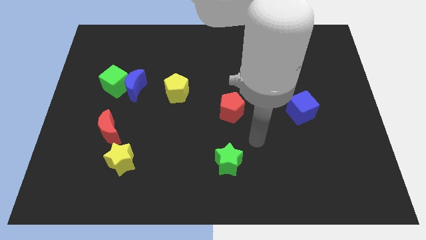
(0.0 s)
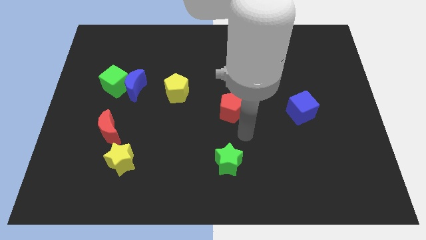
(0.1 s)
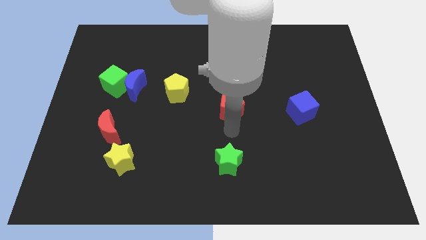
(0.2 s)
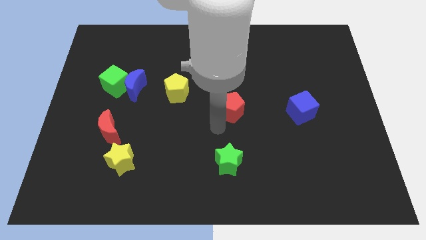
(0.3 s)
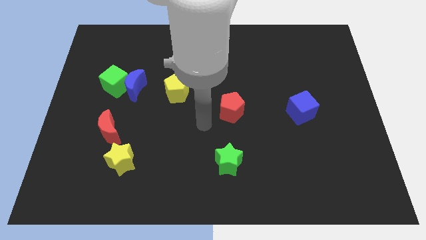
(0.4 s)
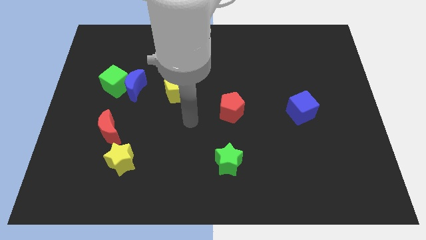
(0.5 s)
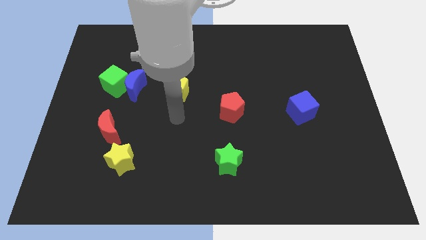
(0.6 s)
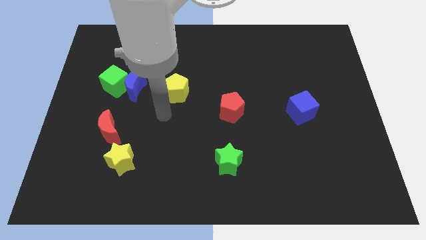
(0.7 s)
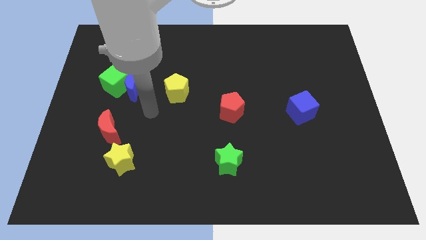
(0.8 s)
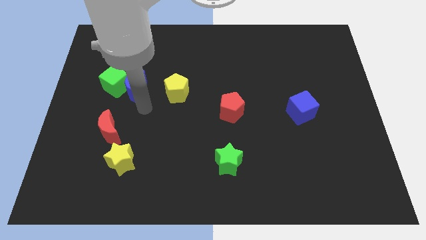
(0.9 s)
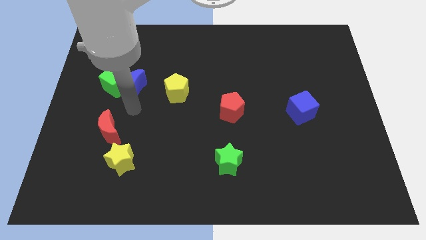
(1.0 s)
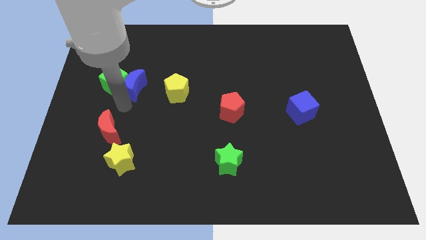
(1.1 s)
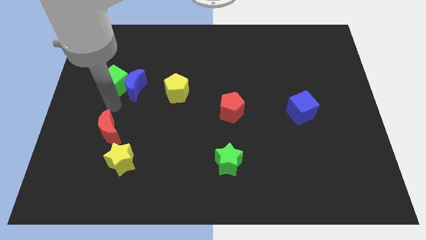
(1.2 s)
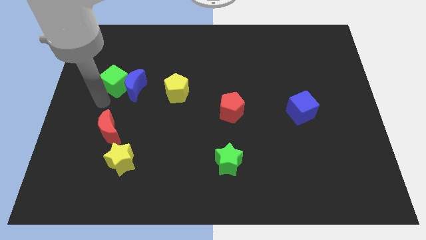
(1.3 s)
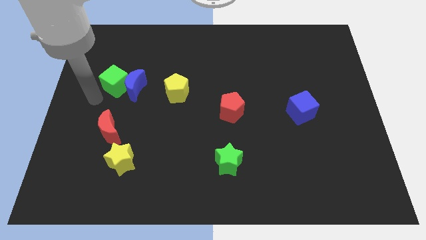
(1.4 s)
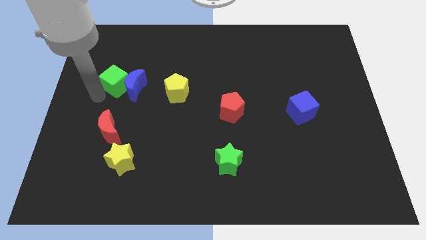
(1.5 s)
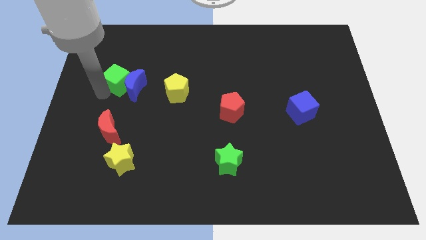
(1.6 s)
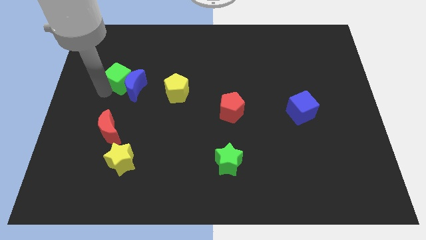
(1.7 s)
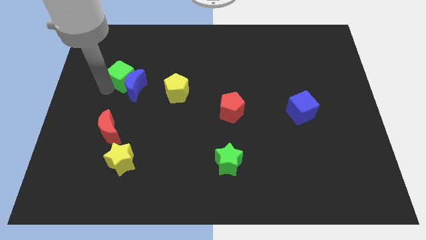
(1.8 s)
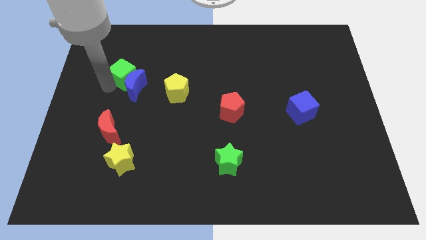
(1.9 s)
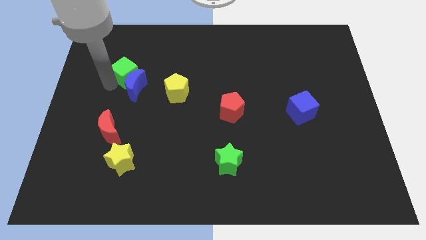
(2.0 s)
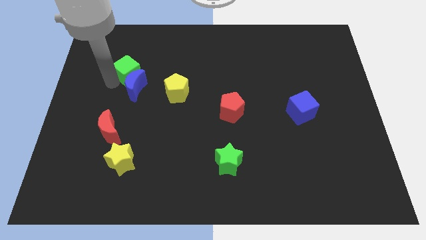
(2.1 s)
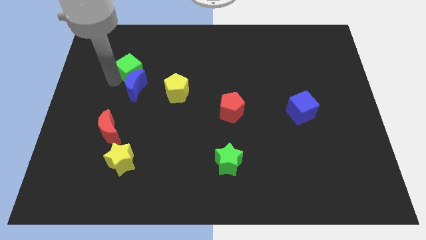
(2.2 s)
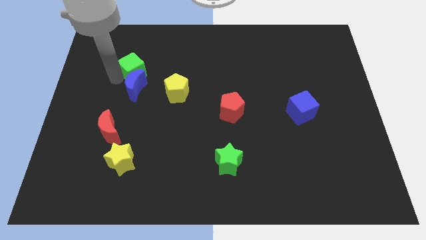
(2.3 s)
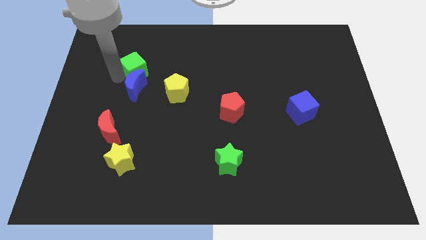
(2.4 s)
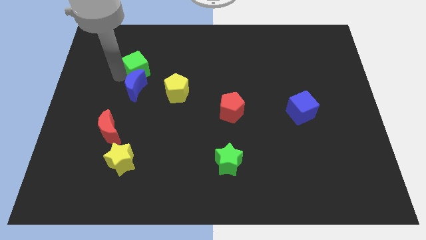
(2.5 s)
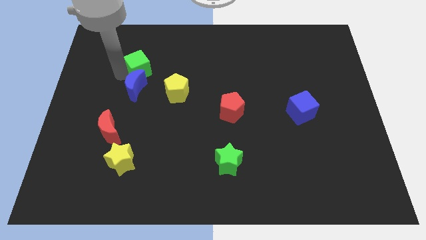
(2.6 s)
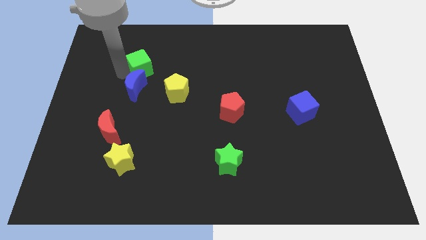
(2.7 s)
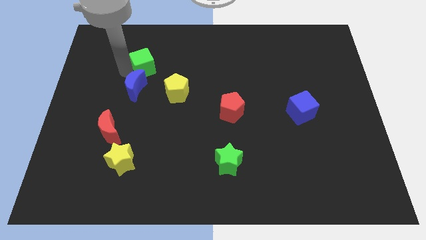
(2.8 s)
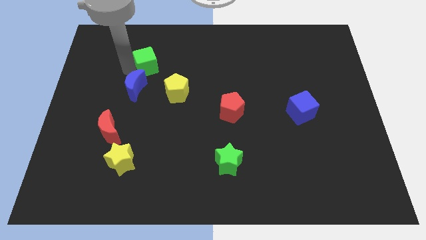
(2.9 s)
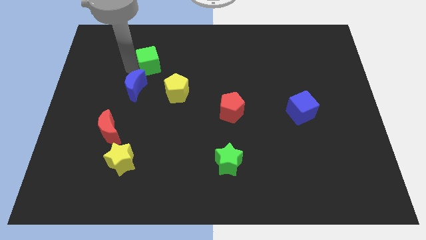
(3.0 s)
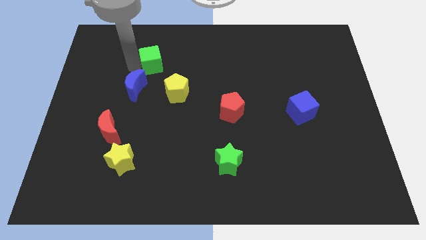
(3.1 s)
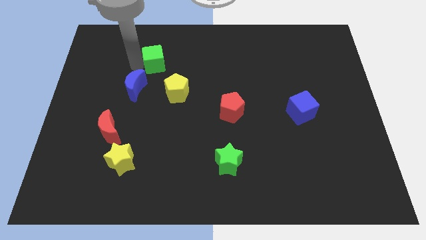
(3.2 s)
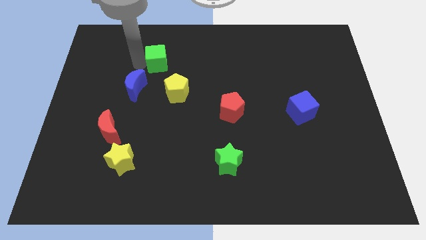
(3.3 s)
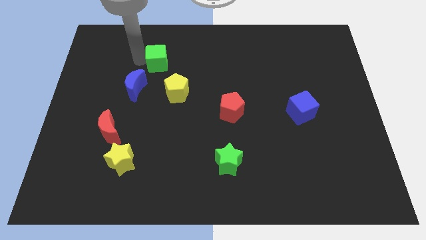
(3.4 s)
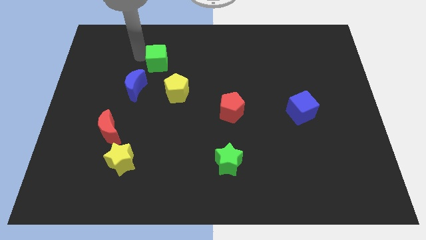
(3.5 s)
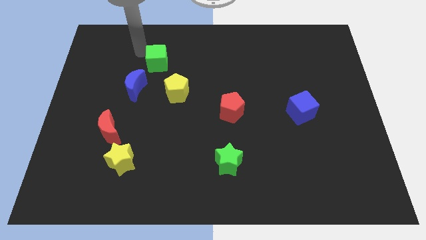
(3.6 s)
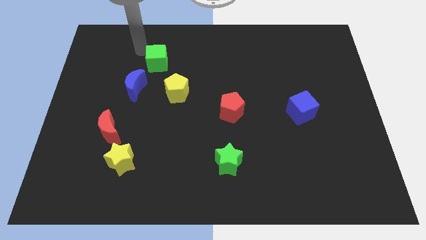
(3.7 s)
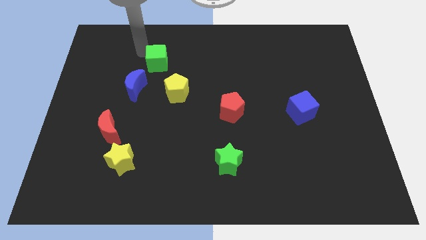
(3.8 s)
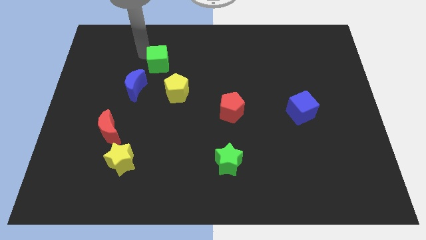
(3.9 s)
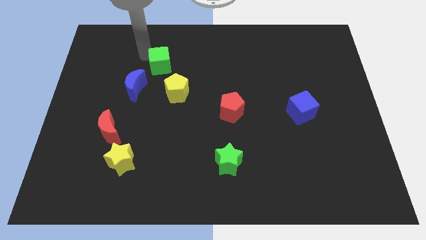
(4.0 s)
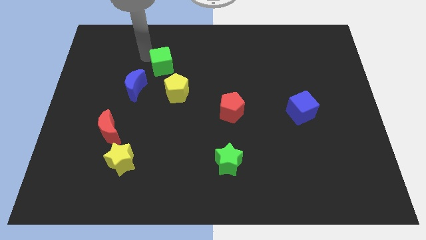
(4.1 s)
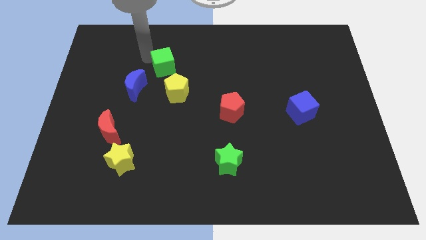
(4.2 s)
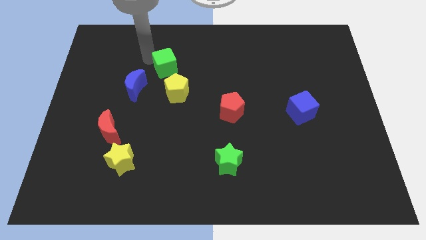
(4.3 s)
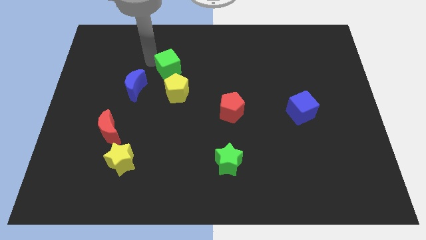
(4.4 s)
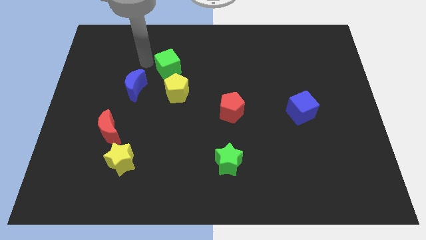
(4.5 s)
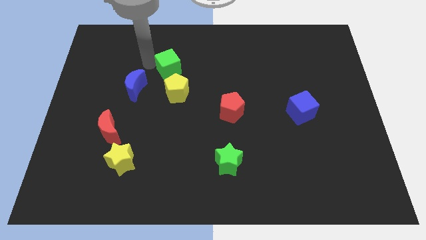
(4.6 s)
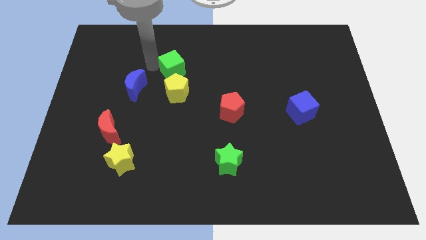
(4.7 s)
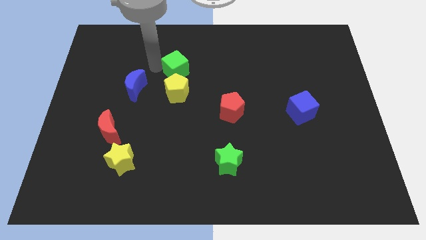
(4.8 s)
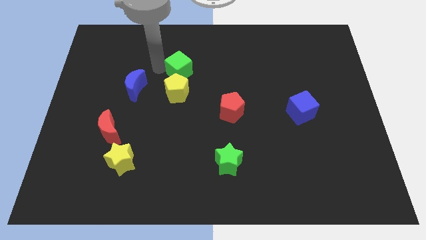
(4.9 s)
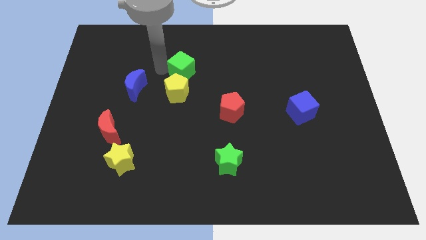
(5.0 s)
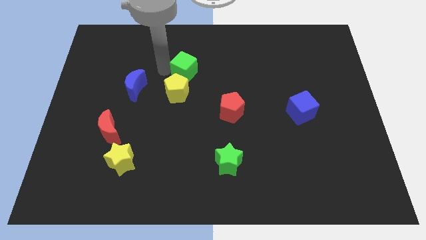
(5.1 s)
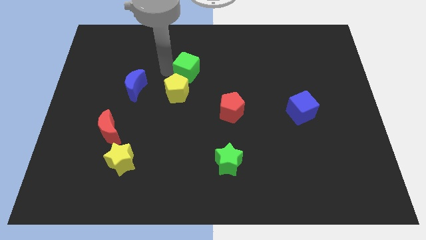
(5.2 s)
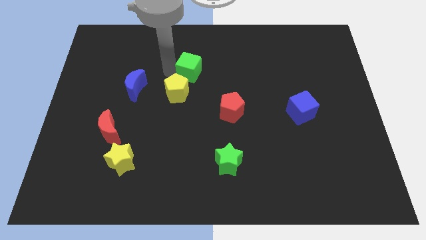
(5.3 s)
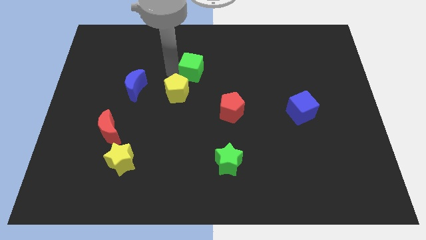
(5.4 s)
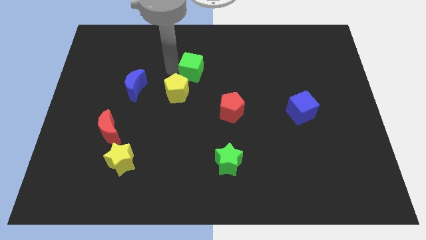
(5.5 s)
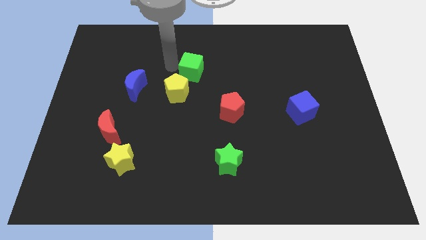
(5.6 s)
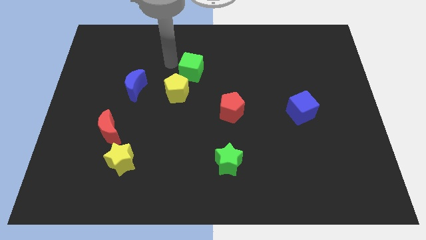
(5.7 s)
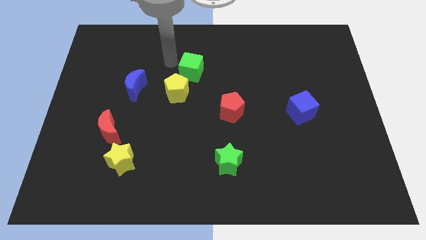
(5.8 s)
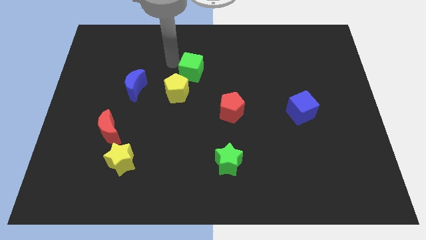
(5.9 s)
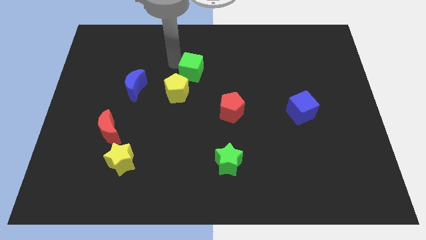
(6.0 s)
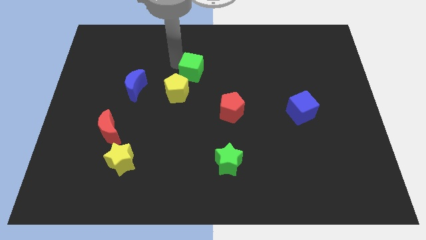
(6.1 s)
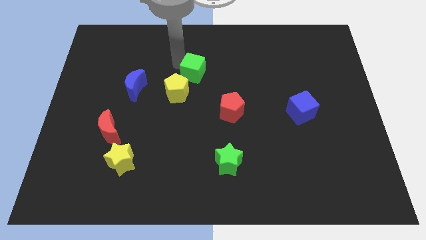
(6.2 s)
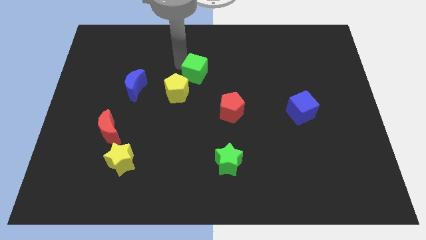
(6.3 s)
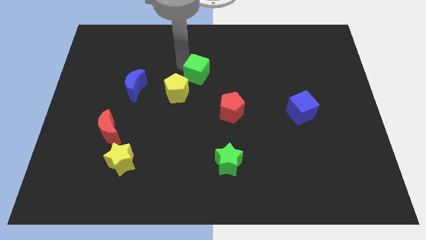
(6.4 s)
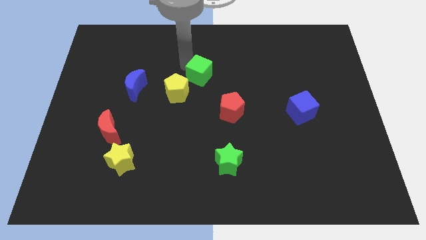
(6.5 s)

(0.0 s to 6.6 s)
slide the green cube right

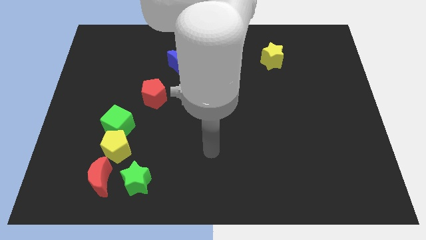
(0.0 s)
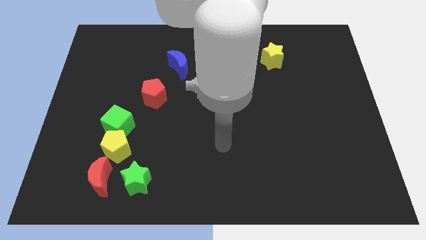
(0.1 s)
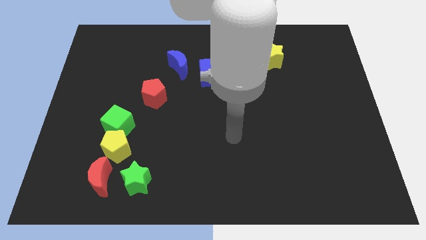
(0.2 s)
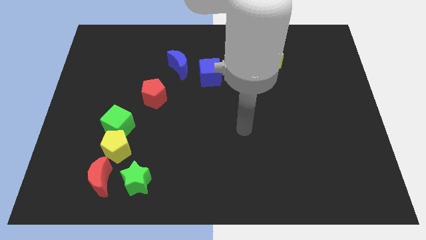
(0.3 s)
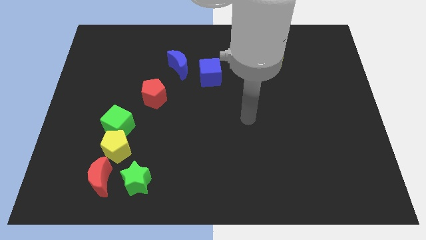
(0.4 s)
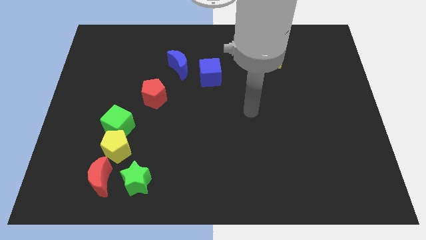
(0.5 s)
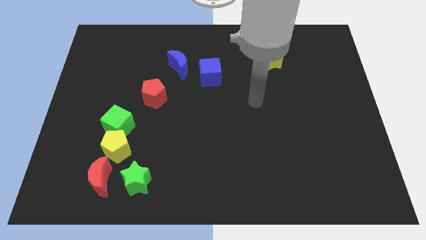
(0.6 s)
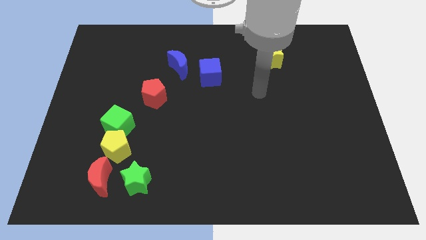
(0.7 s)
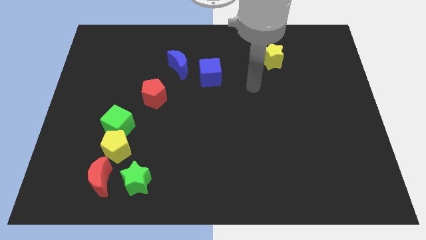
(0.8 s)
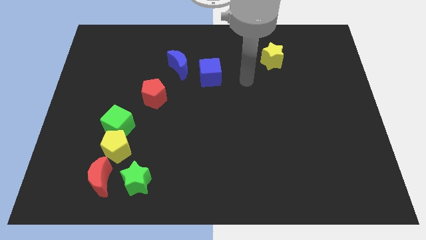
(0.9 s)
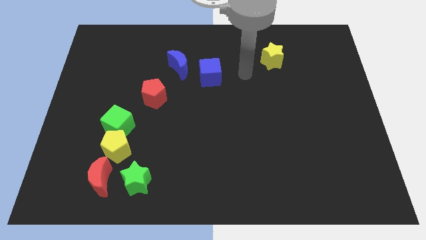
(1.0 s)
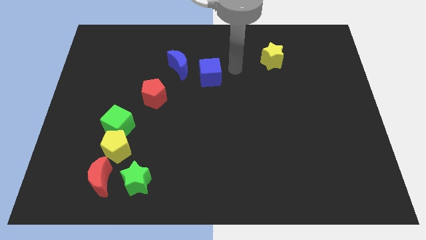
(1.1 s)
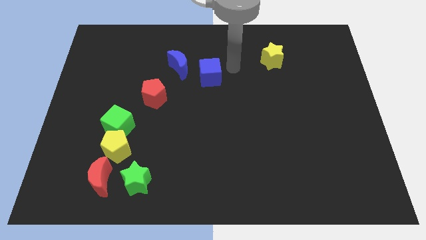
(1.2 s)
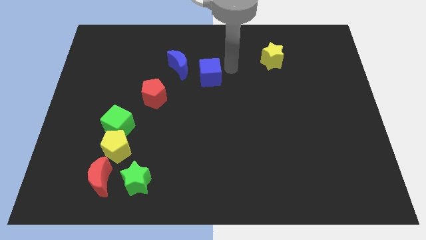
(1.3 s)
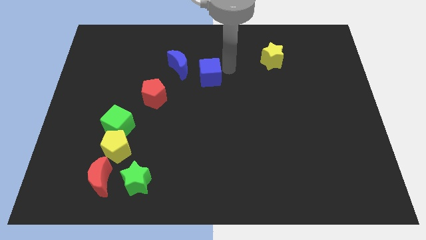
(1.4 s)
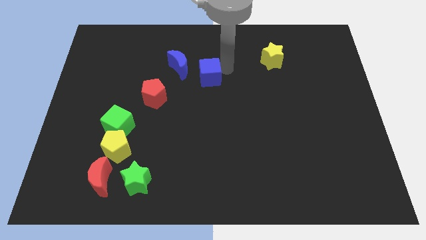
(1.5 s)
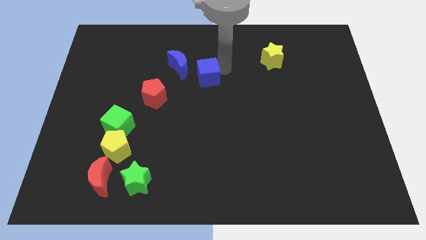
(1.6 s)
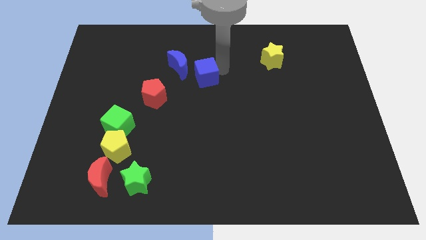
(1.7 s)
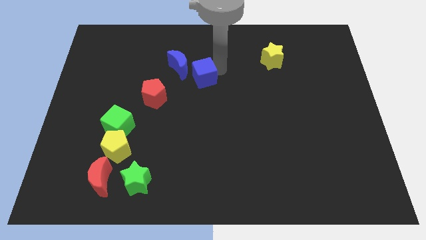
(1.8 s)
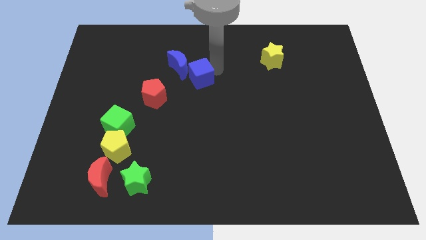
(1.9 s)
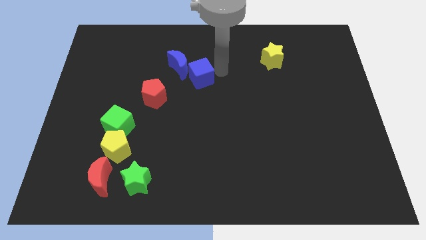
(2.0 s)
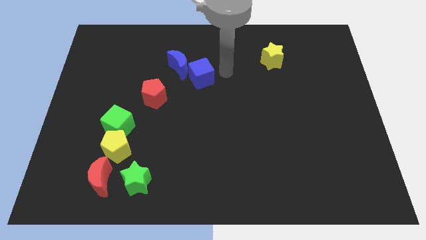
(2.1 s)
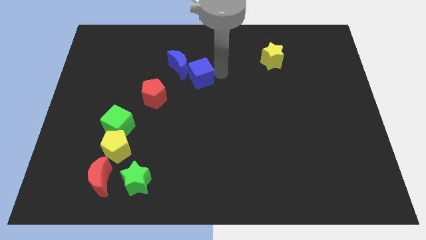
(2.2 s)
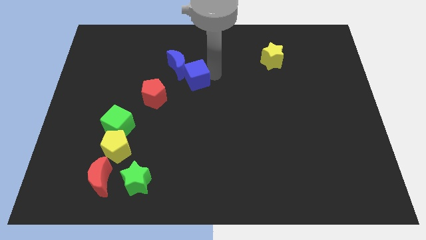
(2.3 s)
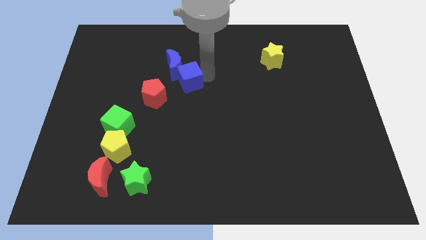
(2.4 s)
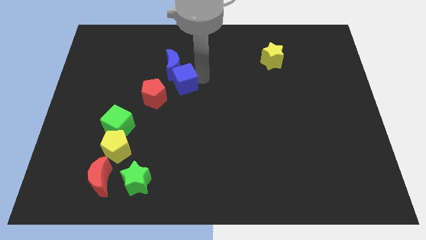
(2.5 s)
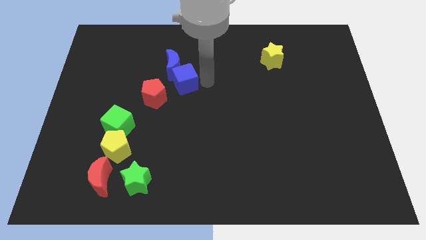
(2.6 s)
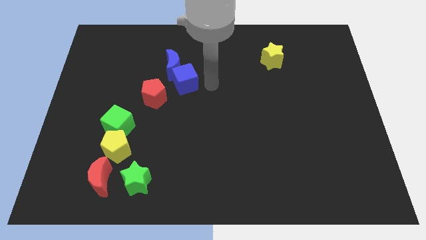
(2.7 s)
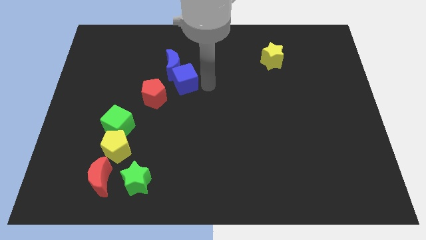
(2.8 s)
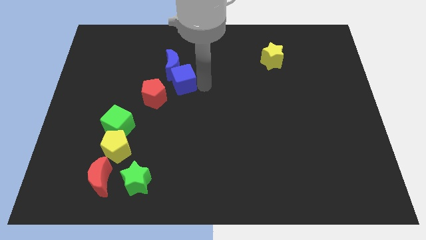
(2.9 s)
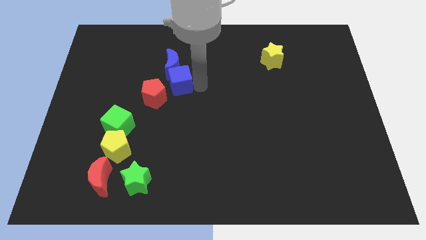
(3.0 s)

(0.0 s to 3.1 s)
slightly move the blue cube to the left
